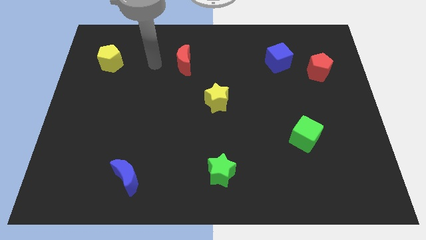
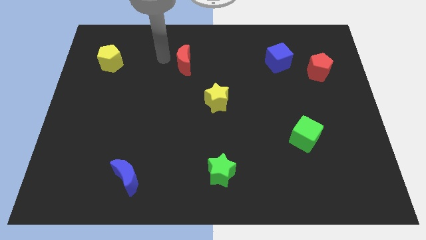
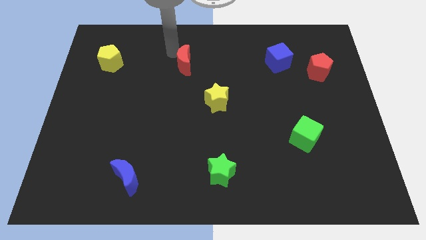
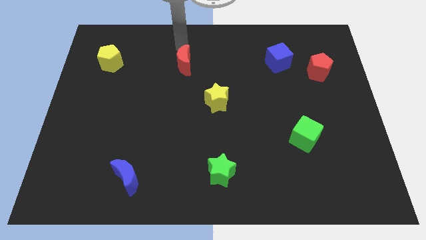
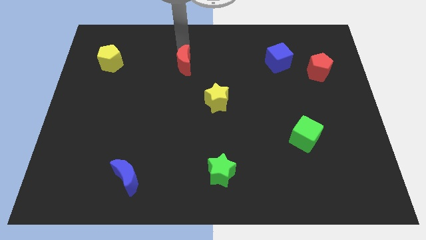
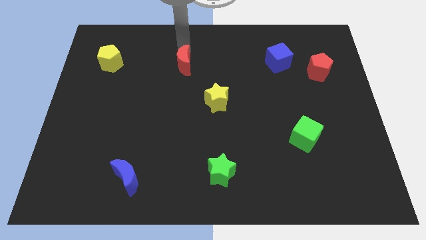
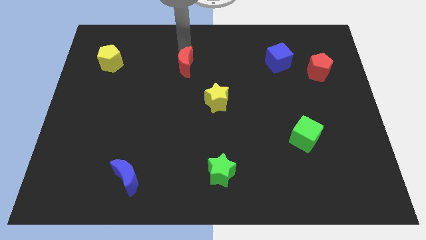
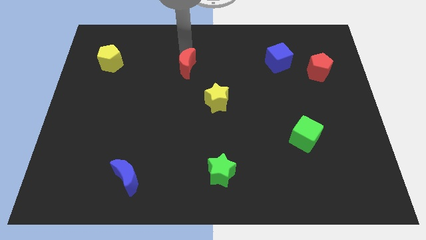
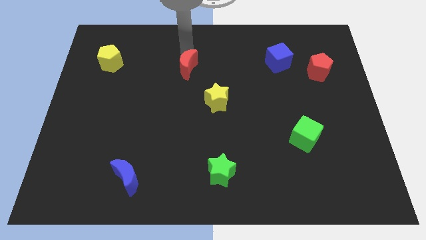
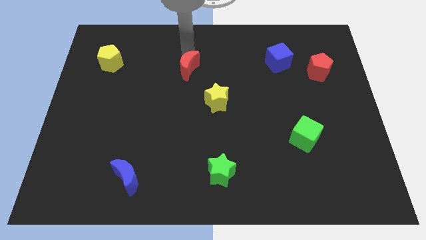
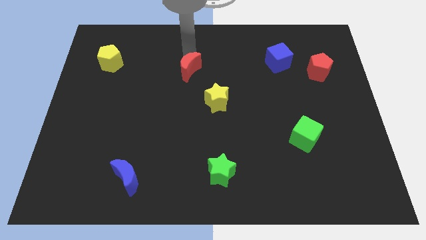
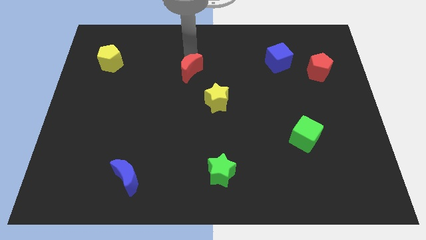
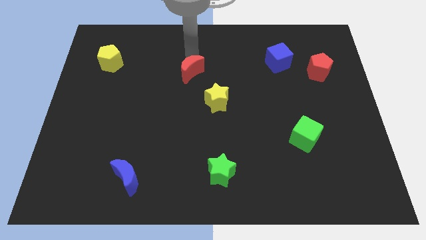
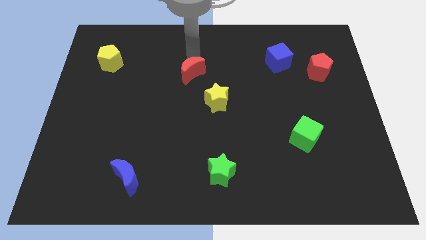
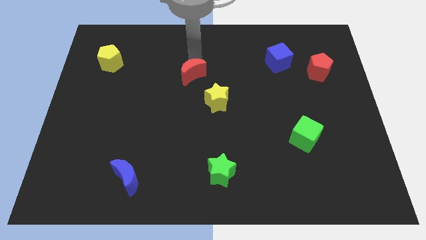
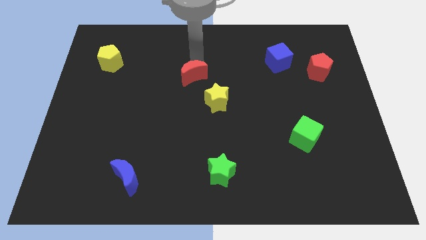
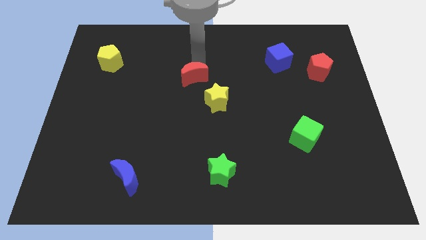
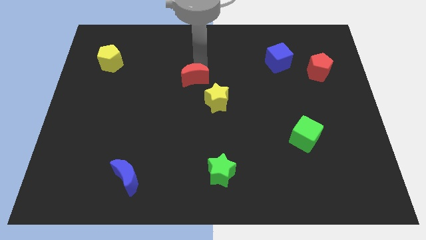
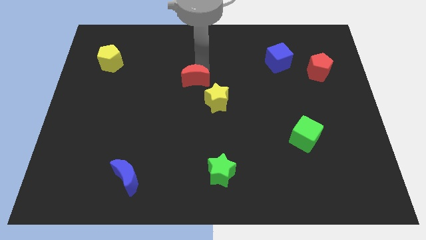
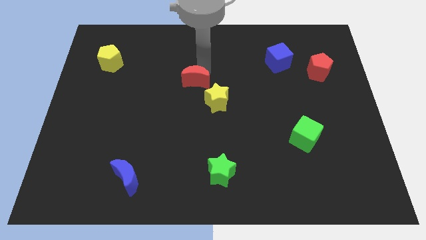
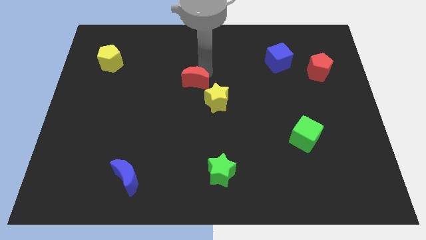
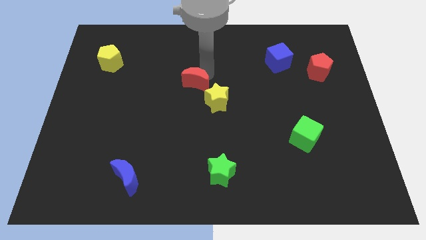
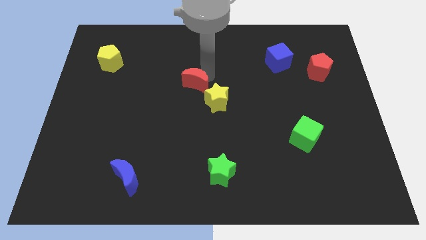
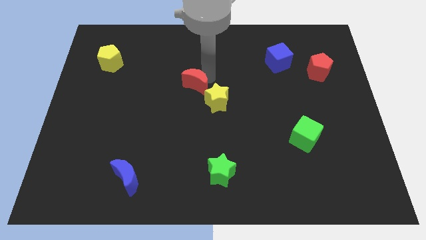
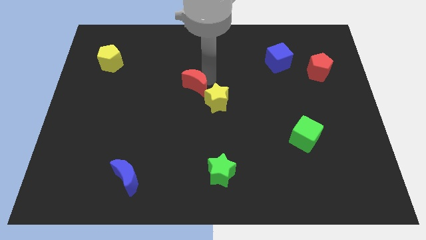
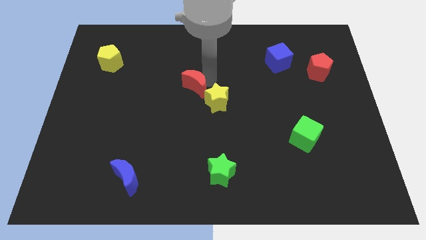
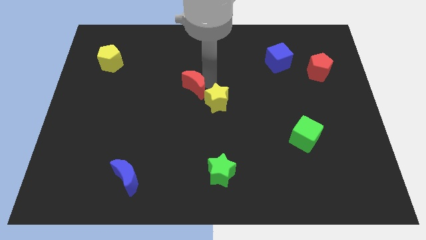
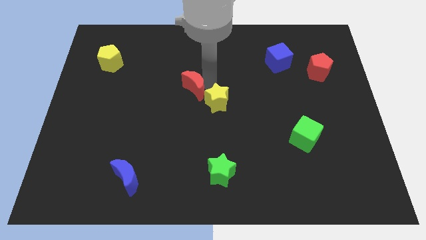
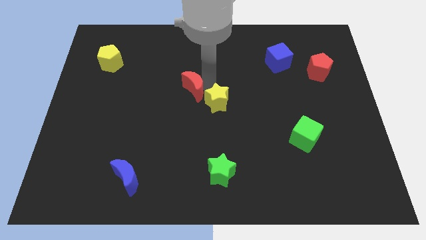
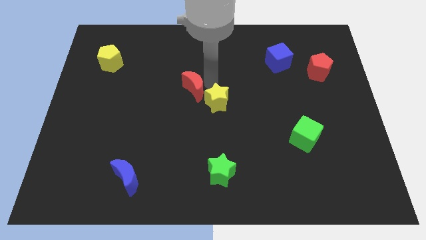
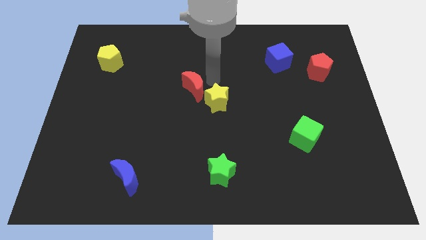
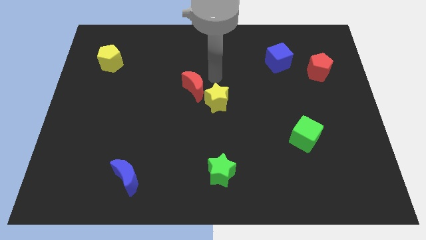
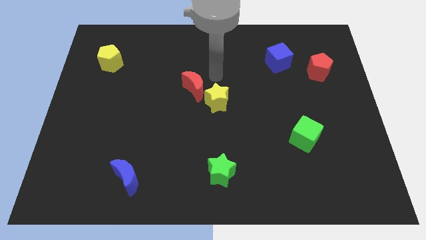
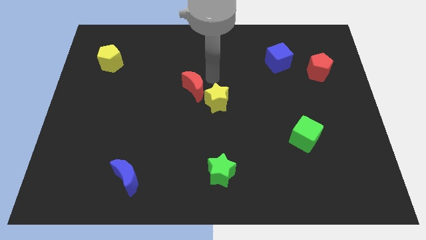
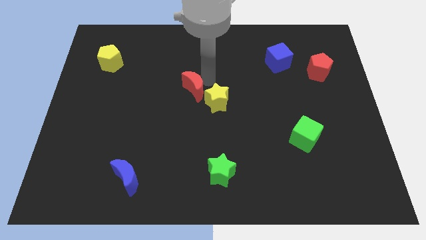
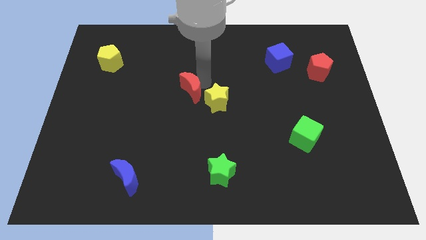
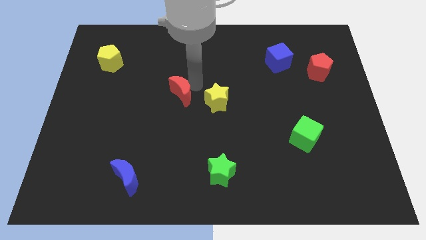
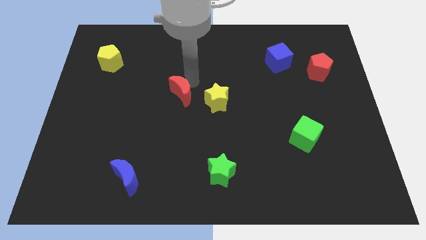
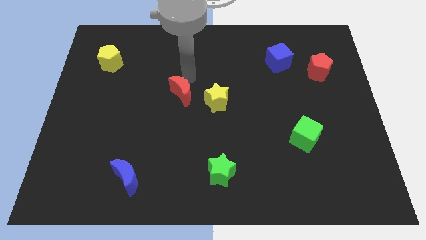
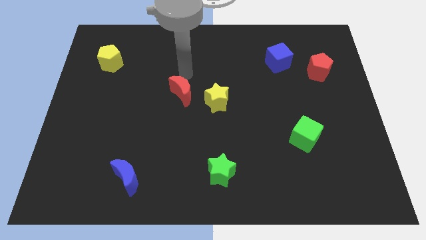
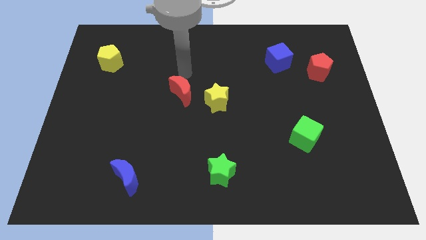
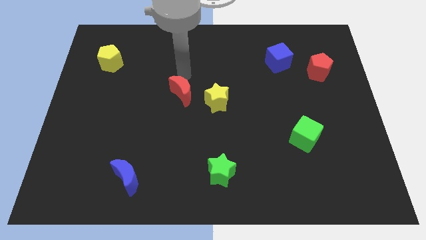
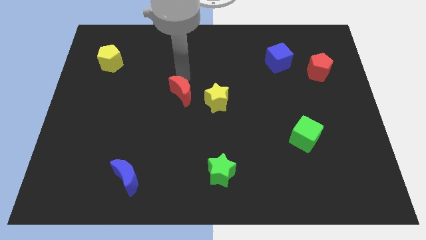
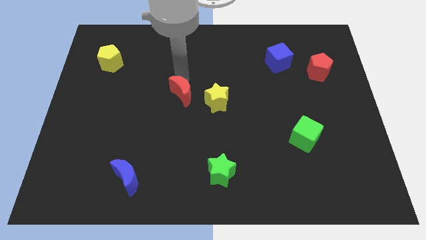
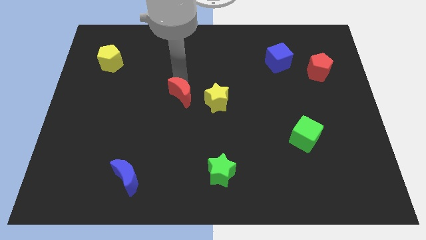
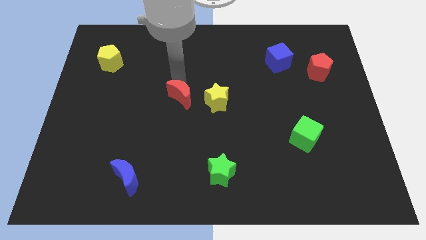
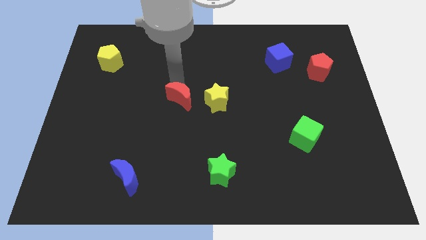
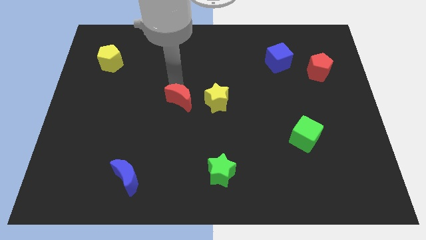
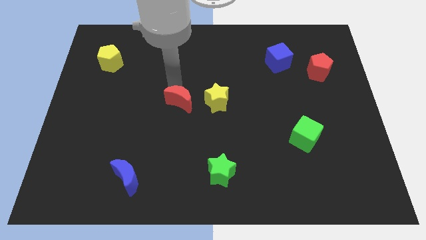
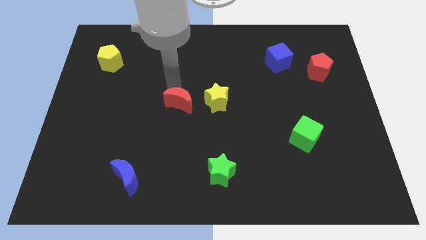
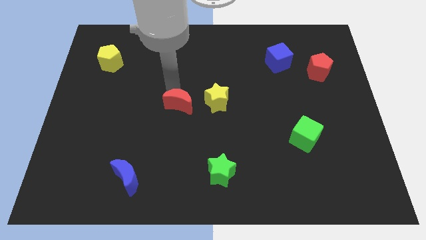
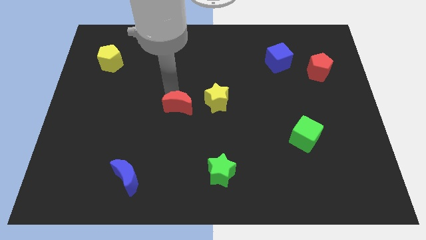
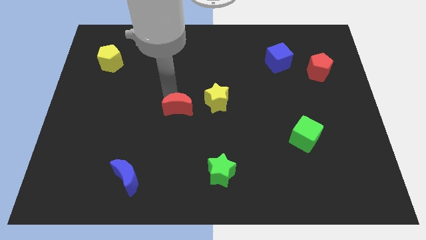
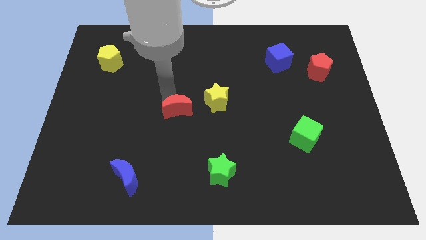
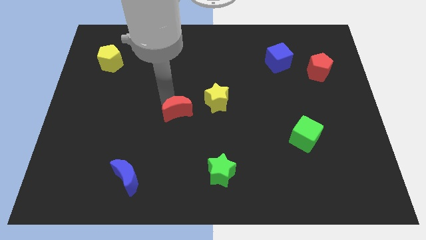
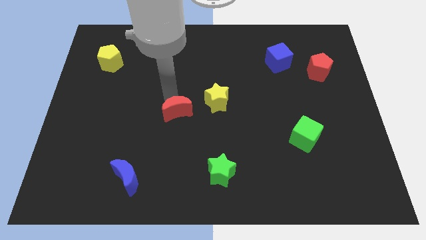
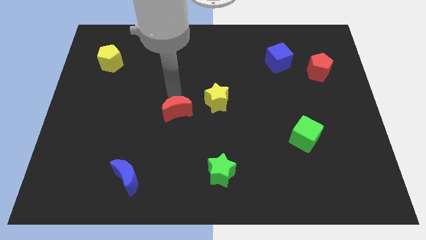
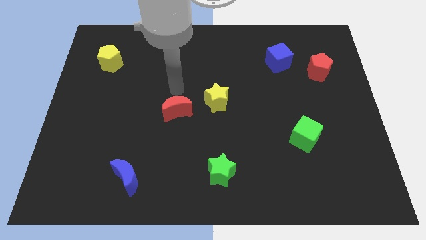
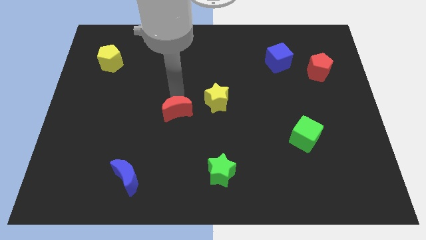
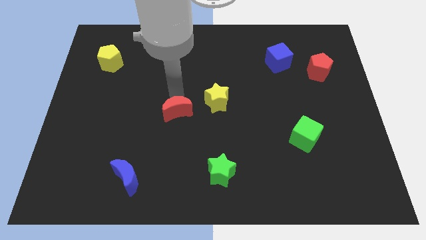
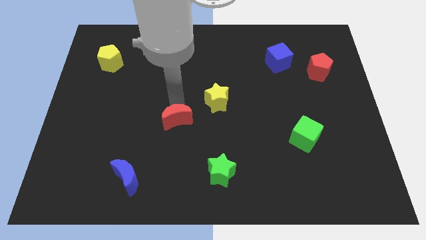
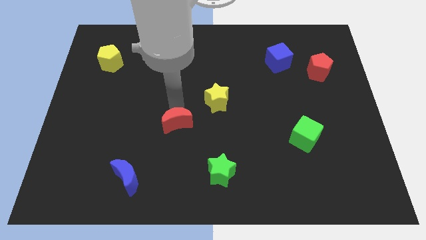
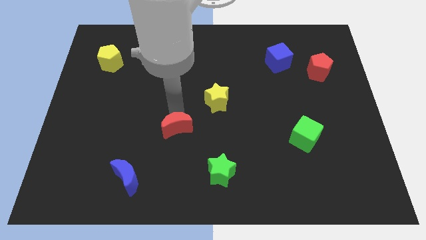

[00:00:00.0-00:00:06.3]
move the red moon down

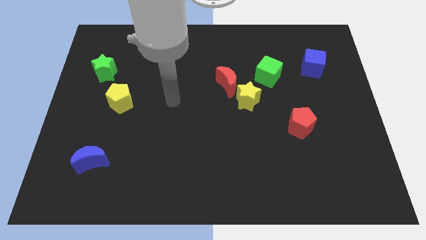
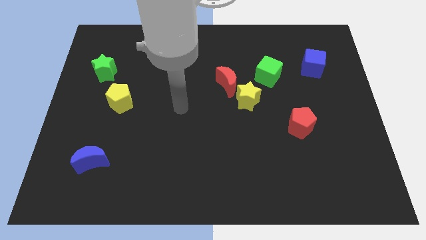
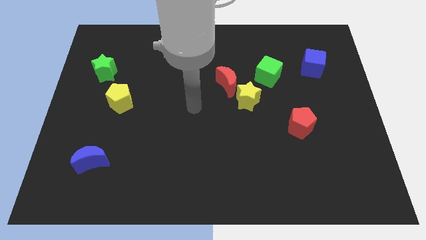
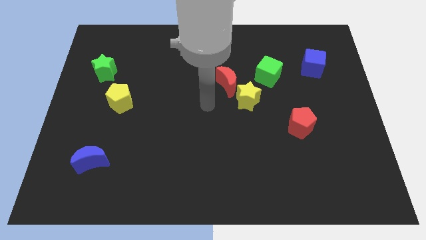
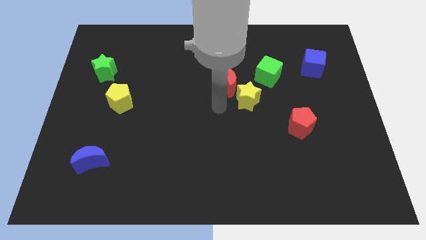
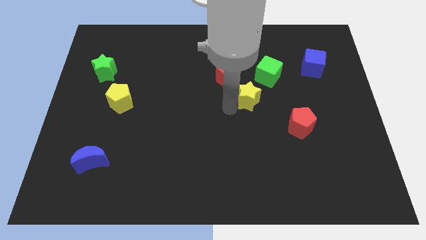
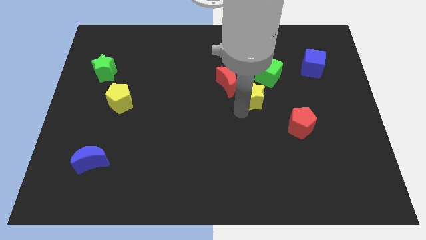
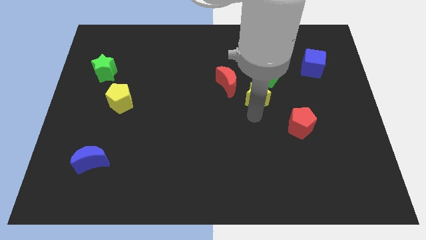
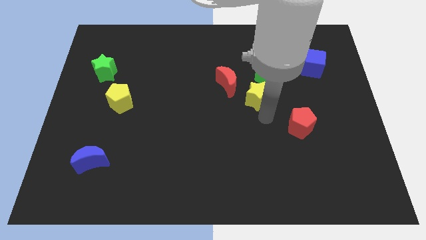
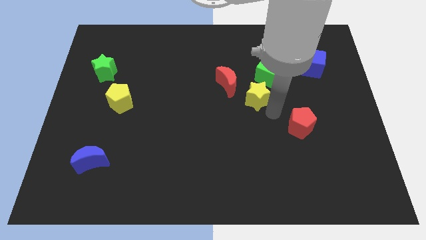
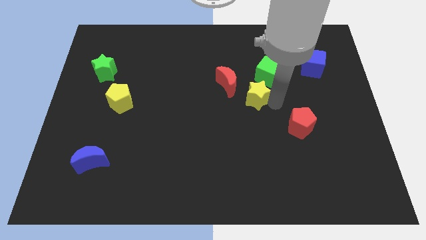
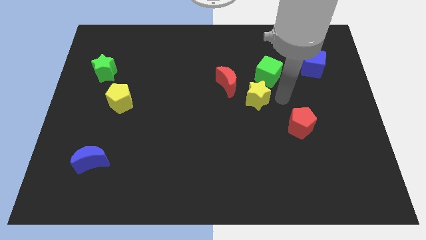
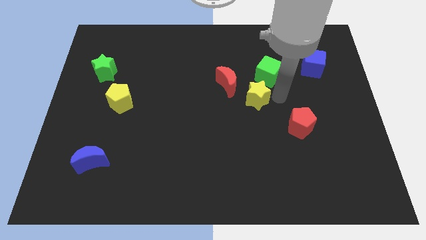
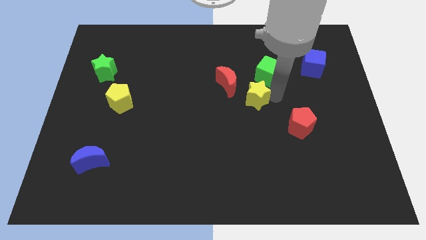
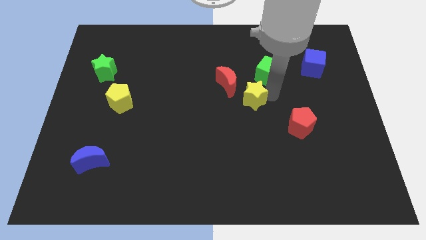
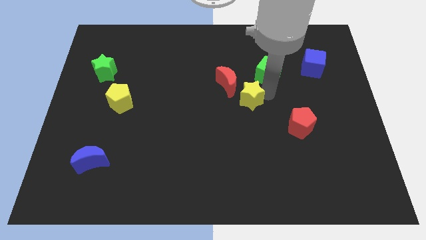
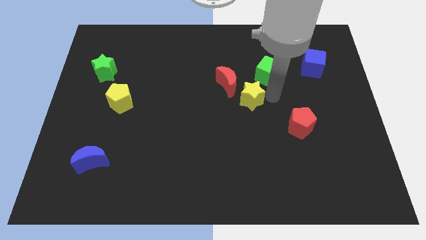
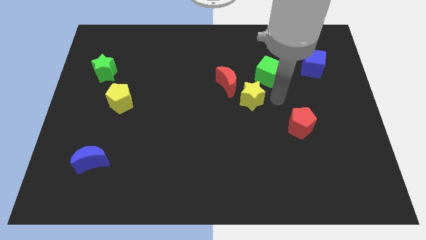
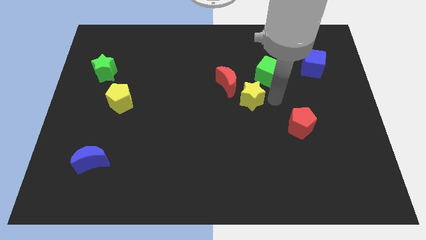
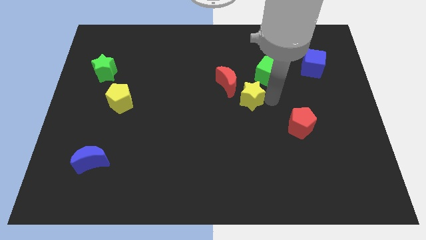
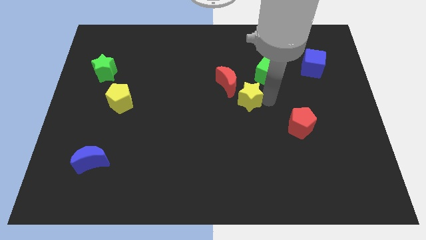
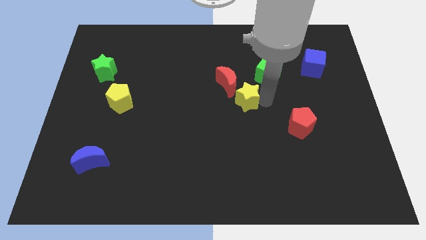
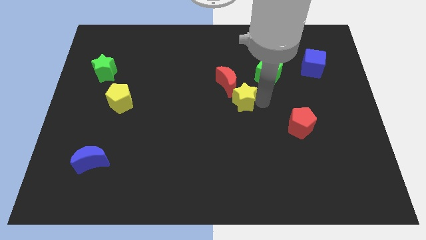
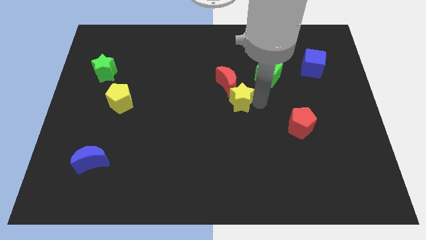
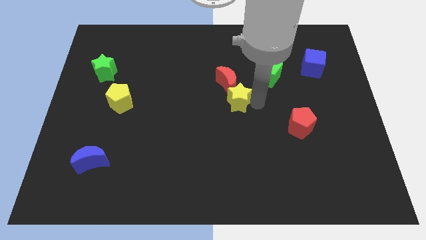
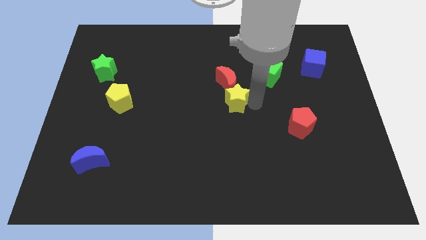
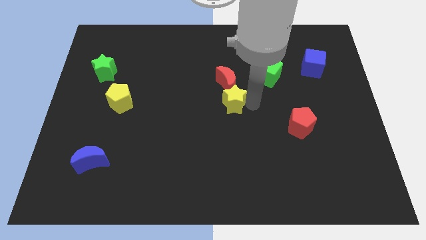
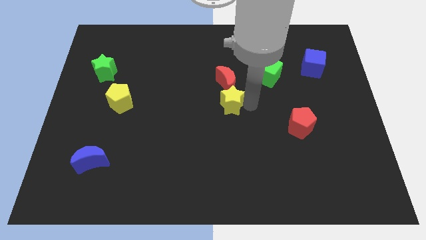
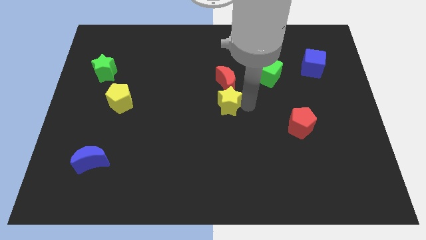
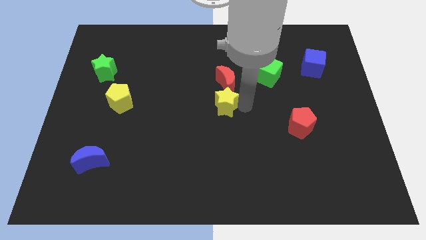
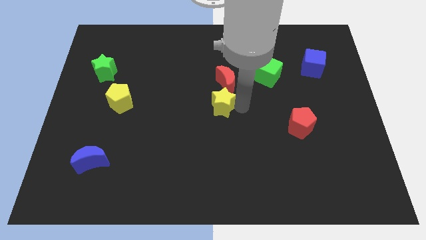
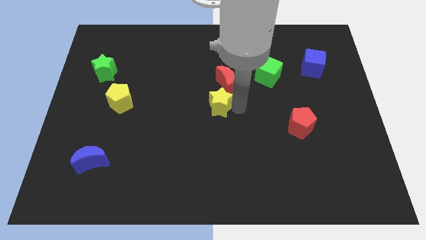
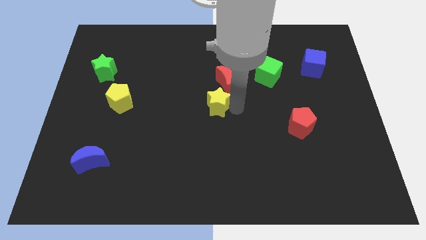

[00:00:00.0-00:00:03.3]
slightly push the yellow star left
